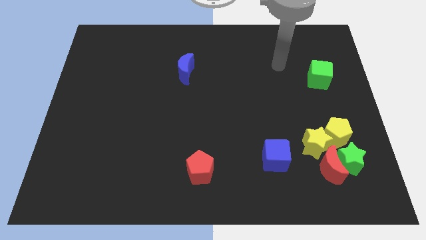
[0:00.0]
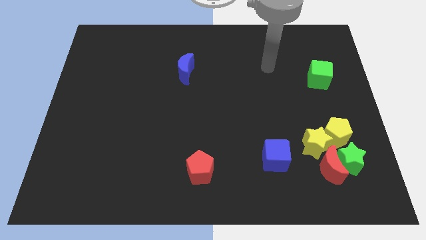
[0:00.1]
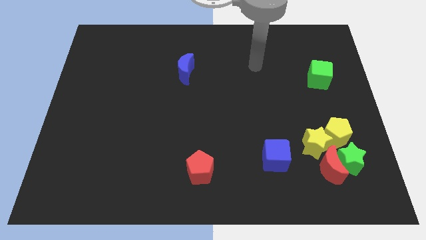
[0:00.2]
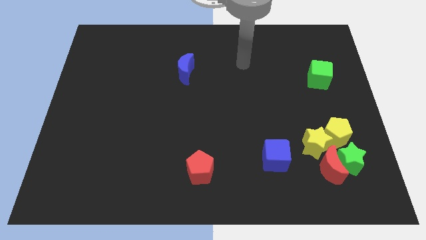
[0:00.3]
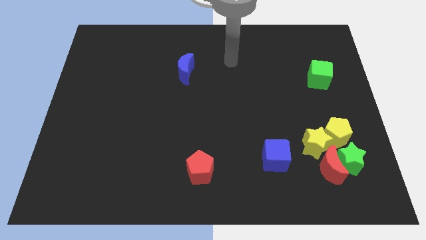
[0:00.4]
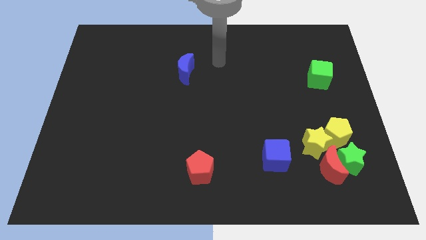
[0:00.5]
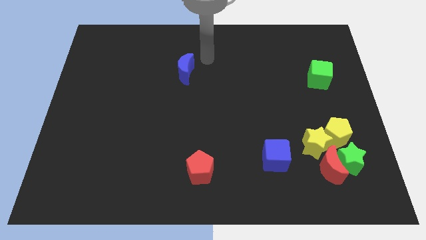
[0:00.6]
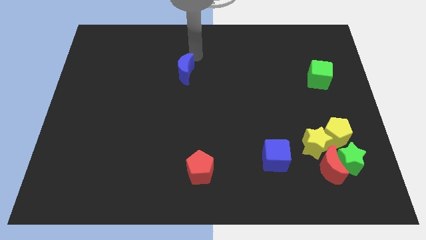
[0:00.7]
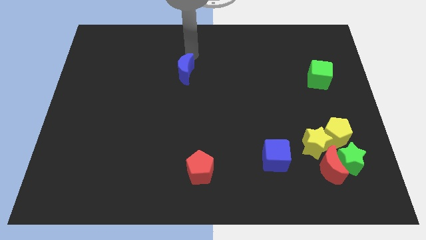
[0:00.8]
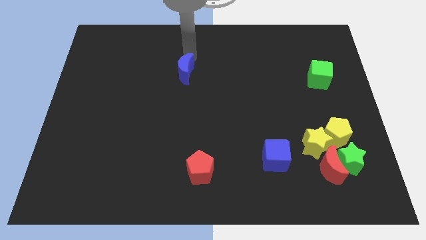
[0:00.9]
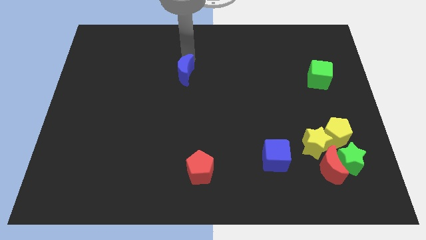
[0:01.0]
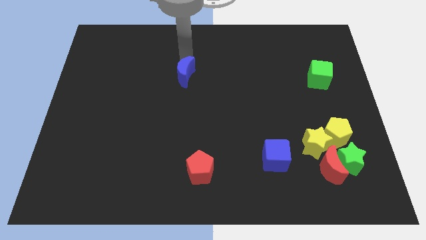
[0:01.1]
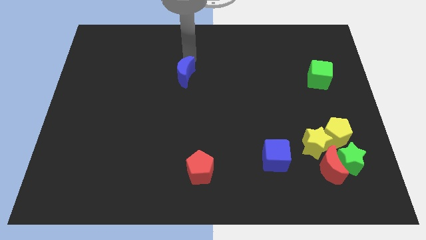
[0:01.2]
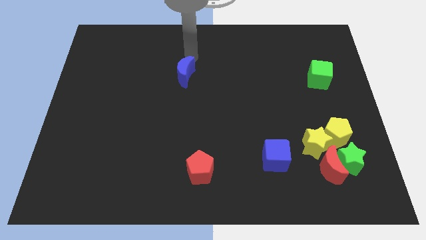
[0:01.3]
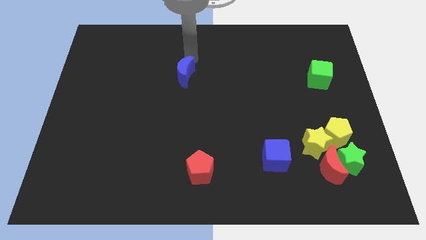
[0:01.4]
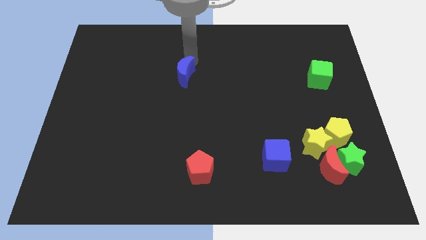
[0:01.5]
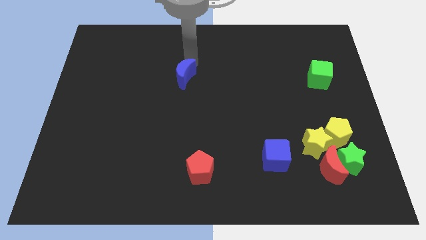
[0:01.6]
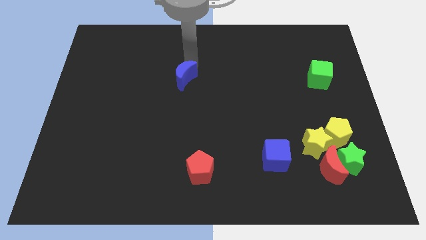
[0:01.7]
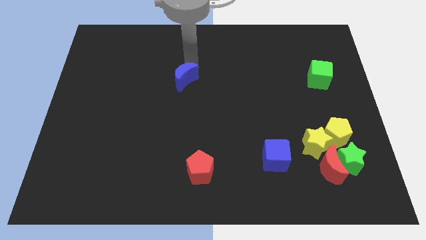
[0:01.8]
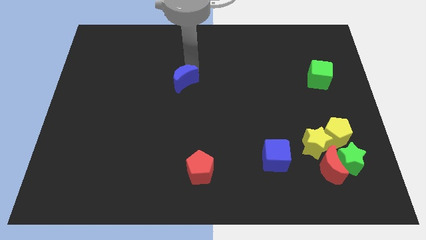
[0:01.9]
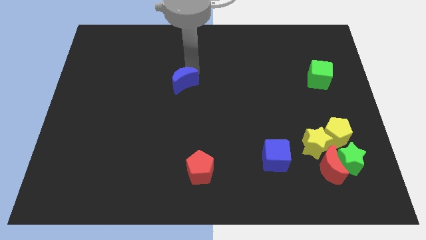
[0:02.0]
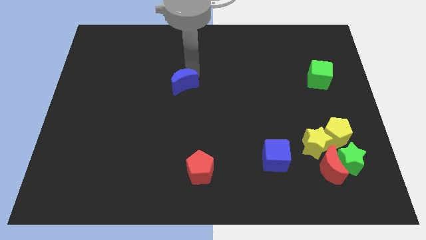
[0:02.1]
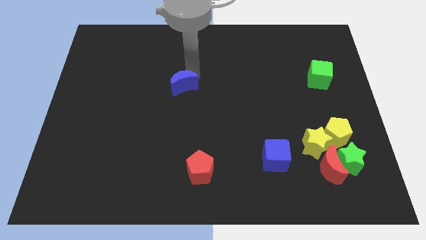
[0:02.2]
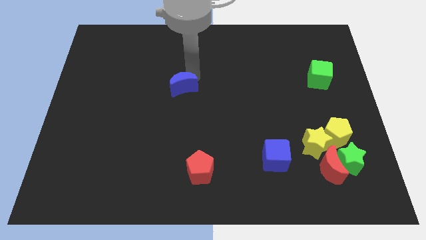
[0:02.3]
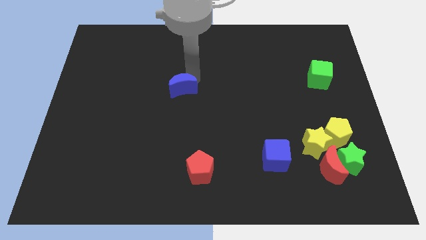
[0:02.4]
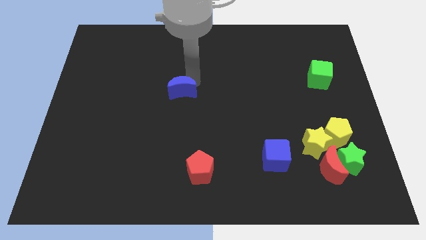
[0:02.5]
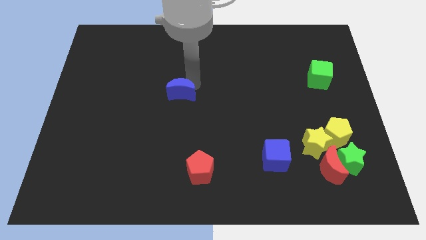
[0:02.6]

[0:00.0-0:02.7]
slide the blue moon a bit downwards

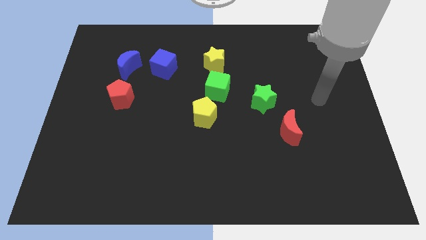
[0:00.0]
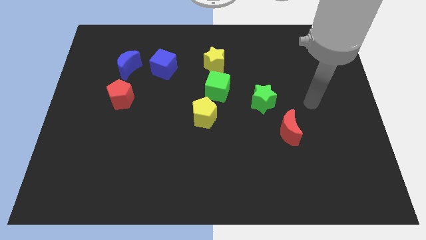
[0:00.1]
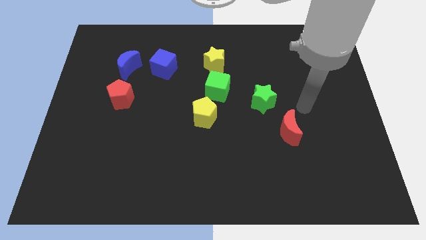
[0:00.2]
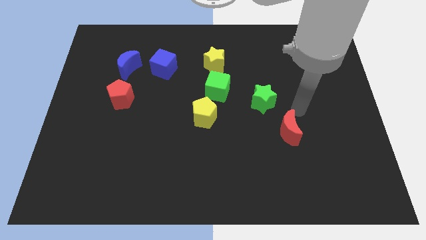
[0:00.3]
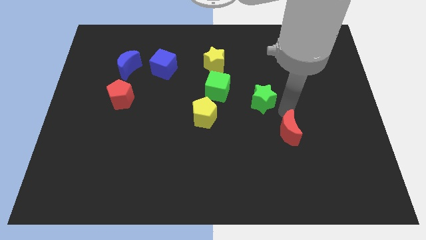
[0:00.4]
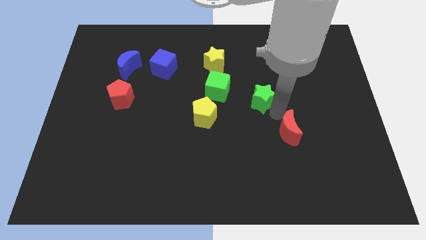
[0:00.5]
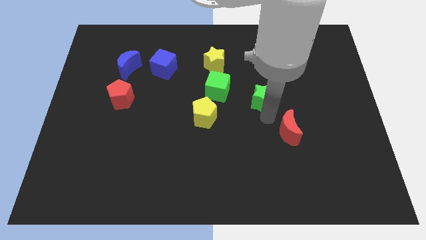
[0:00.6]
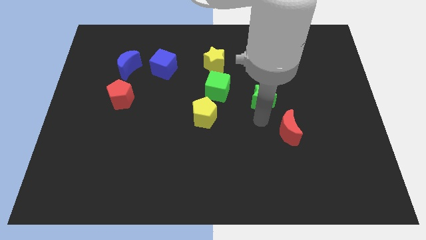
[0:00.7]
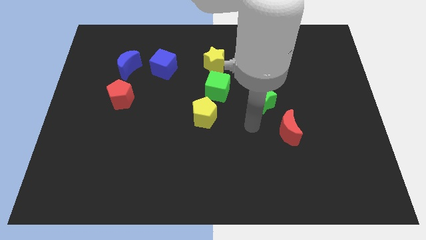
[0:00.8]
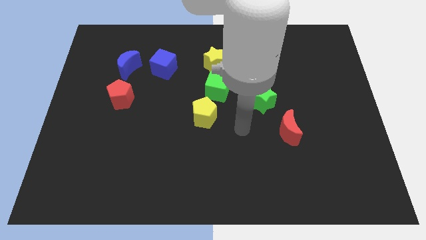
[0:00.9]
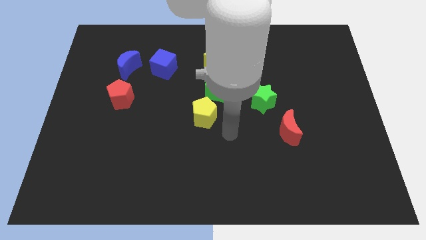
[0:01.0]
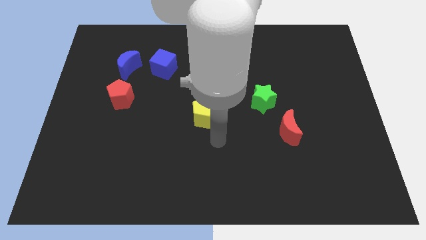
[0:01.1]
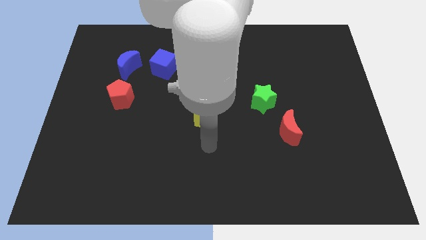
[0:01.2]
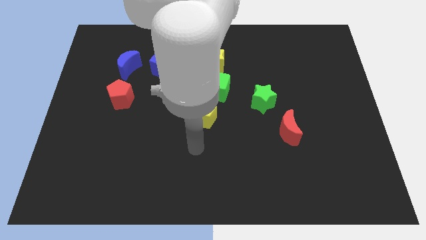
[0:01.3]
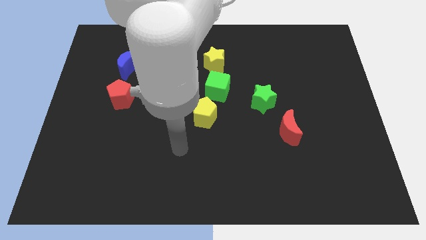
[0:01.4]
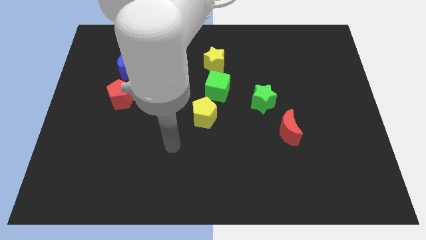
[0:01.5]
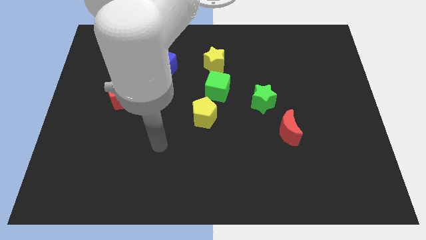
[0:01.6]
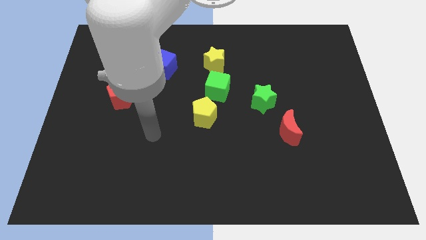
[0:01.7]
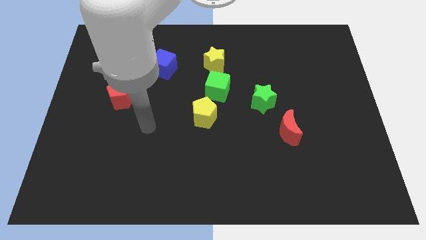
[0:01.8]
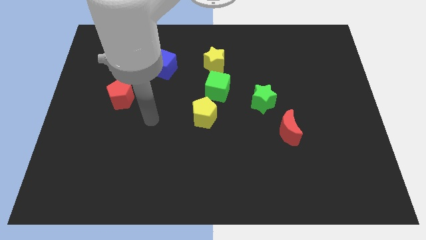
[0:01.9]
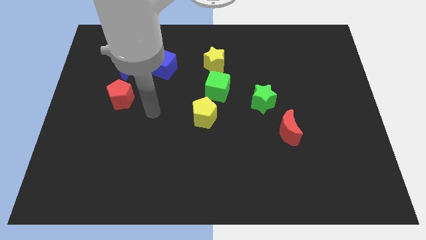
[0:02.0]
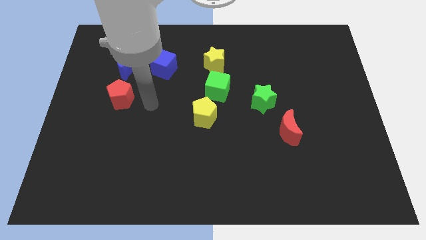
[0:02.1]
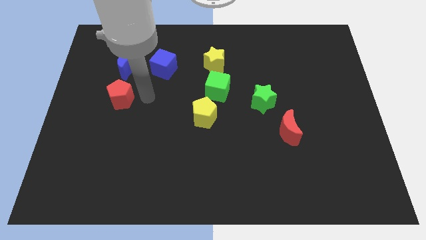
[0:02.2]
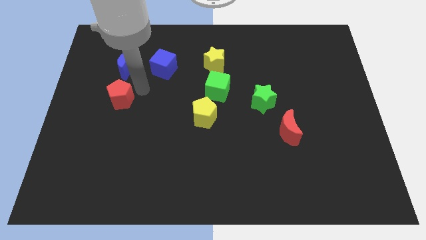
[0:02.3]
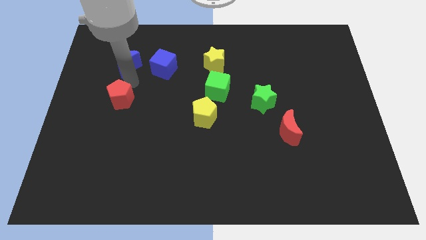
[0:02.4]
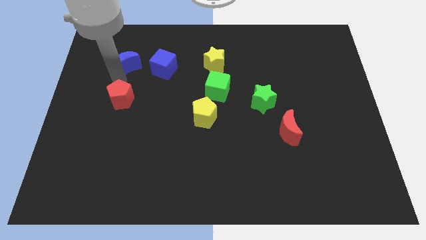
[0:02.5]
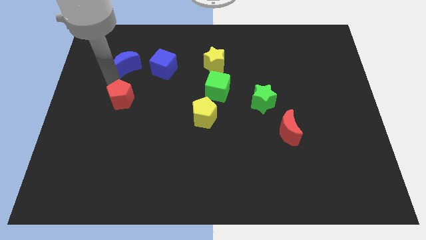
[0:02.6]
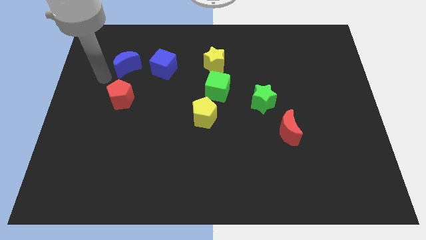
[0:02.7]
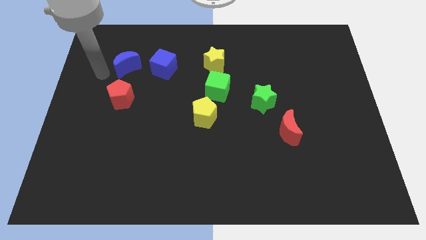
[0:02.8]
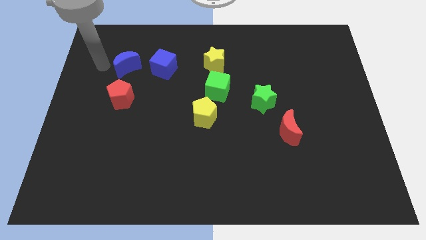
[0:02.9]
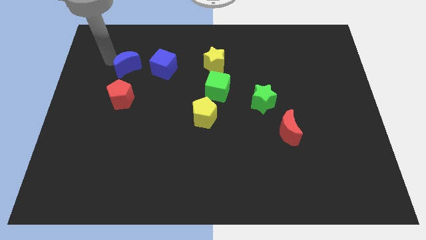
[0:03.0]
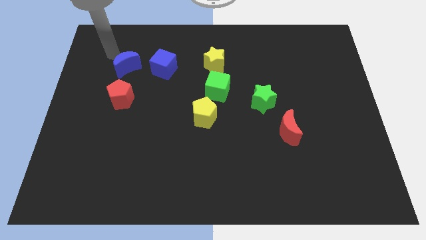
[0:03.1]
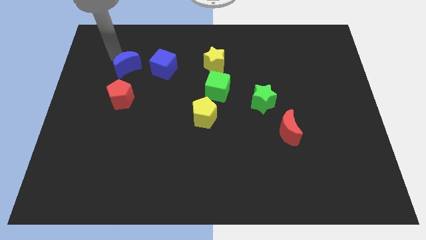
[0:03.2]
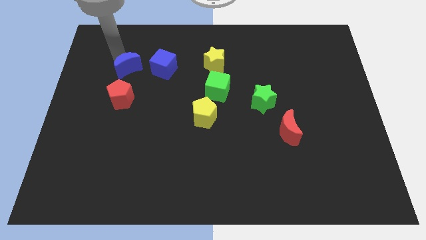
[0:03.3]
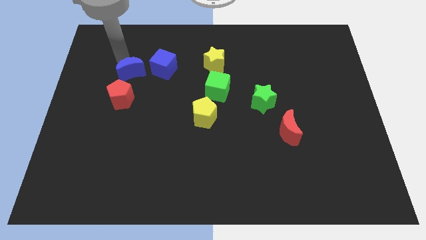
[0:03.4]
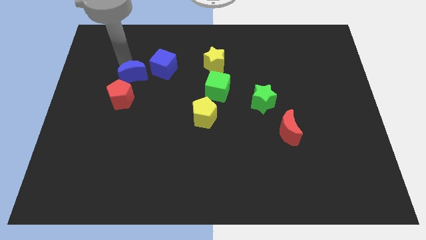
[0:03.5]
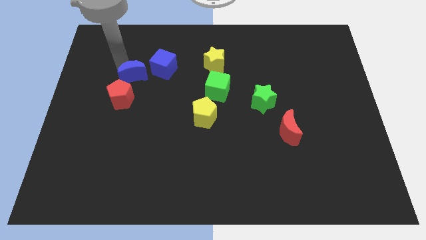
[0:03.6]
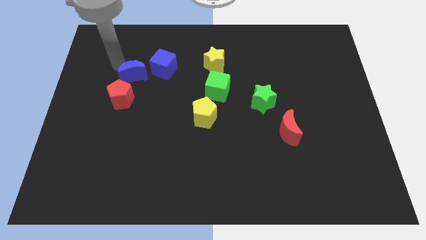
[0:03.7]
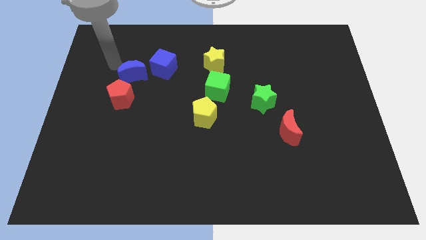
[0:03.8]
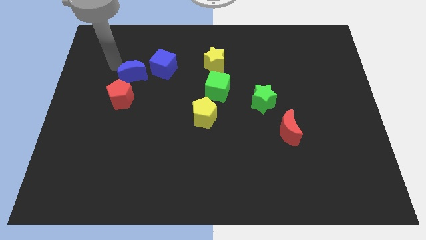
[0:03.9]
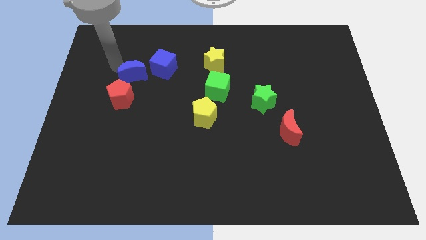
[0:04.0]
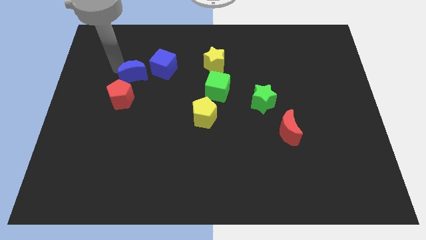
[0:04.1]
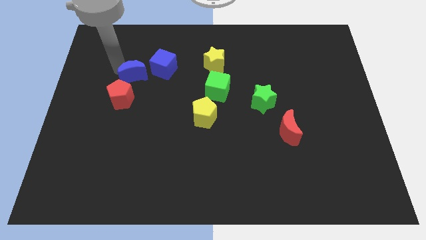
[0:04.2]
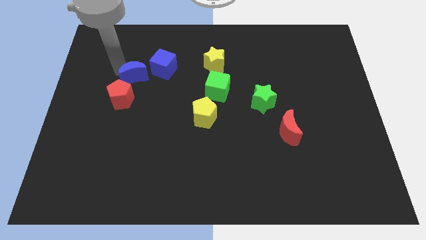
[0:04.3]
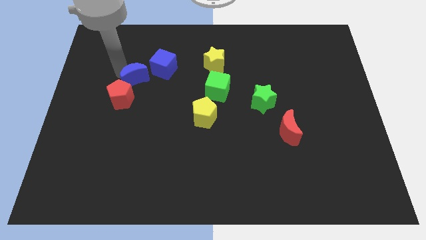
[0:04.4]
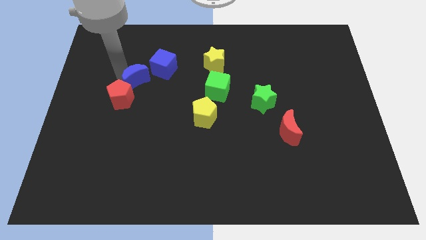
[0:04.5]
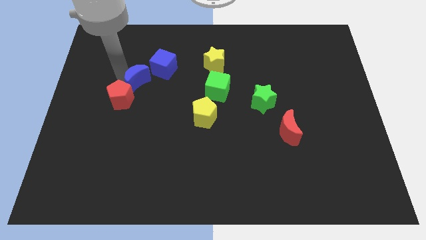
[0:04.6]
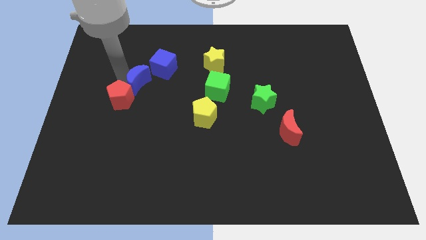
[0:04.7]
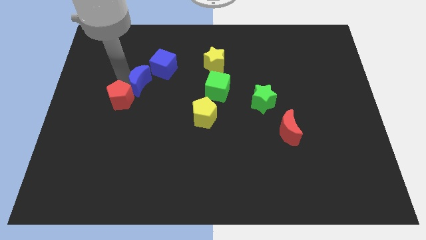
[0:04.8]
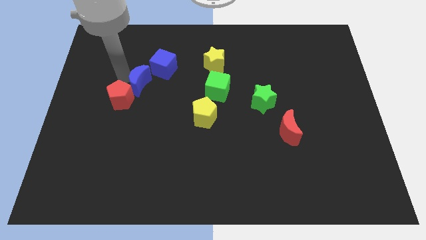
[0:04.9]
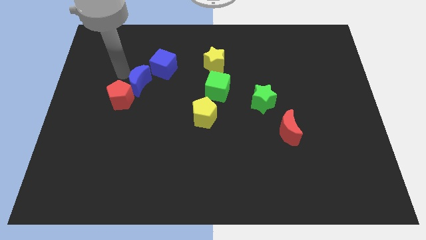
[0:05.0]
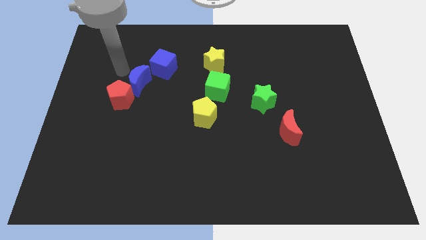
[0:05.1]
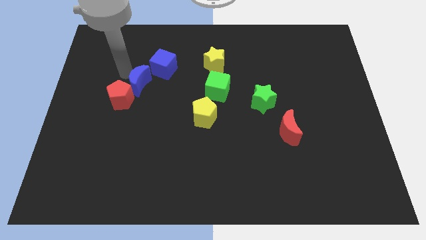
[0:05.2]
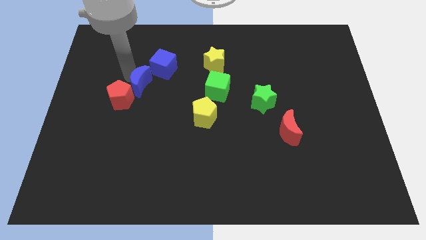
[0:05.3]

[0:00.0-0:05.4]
slightly push the blue moon downwards and to the right diagonally

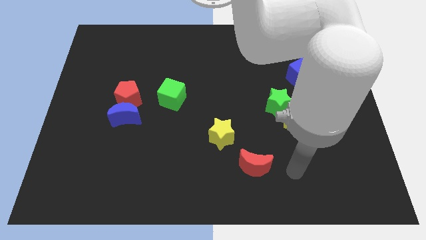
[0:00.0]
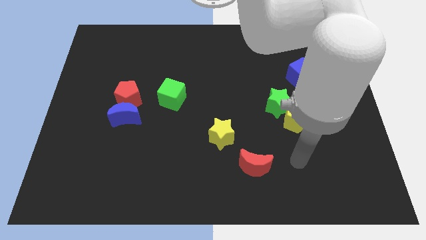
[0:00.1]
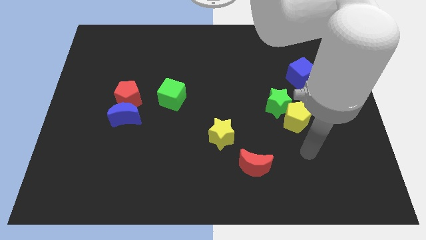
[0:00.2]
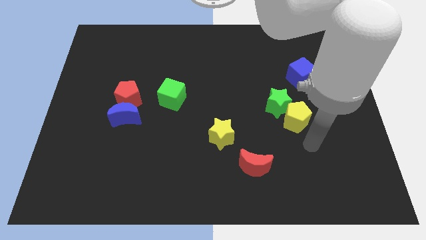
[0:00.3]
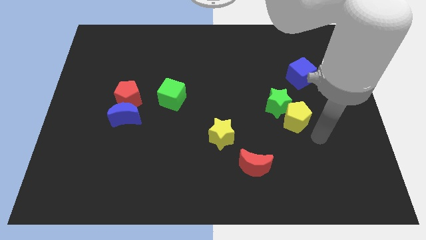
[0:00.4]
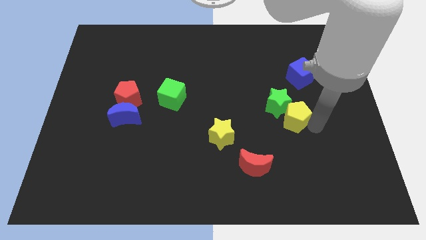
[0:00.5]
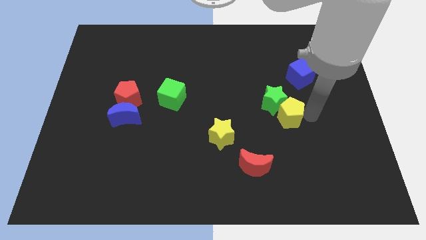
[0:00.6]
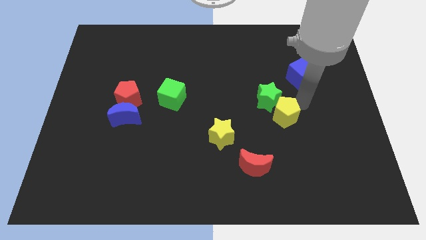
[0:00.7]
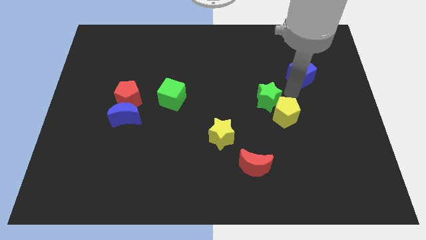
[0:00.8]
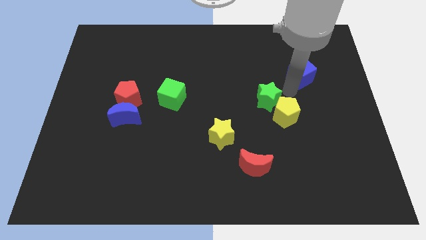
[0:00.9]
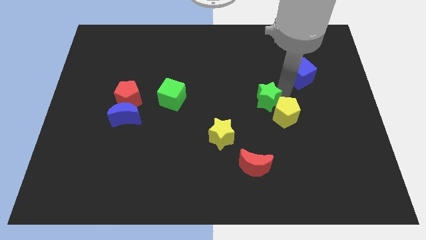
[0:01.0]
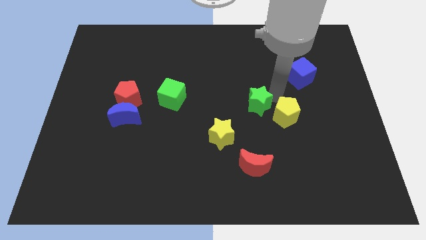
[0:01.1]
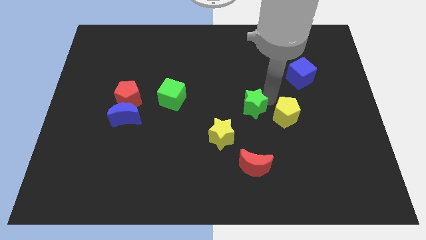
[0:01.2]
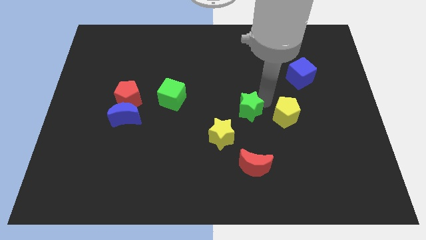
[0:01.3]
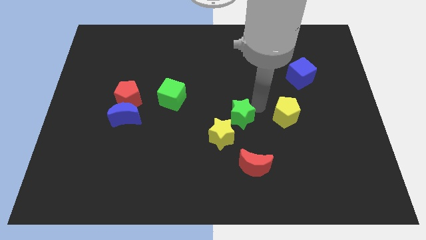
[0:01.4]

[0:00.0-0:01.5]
slightly push the green star to the left
